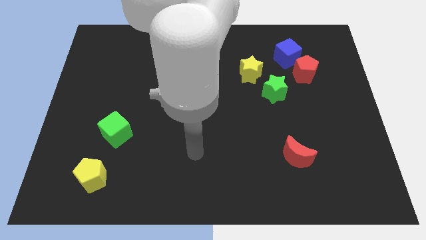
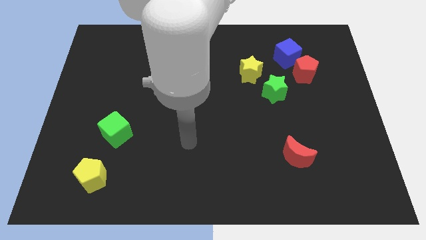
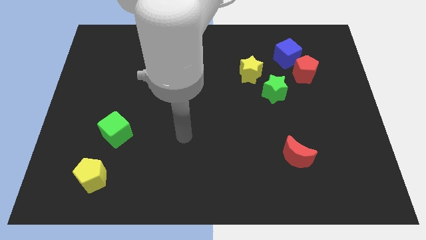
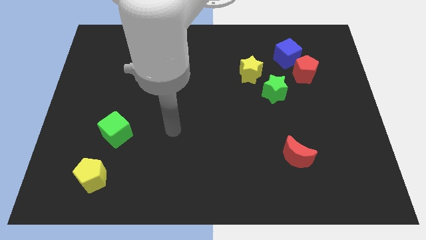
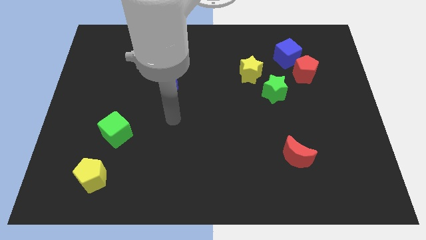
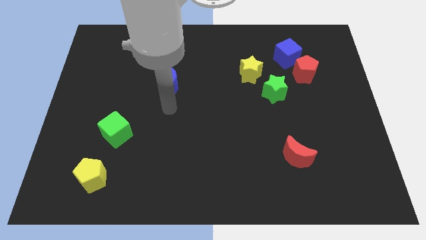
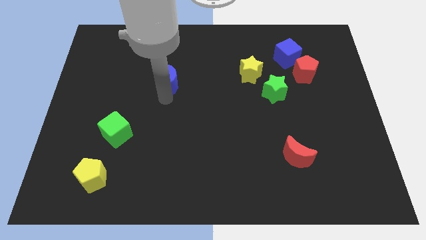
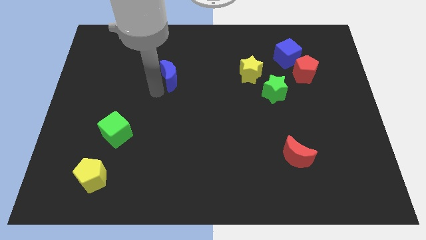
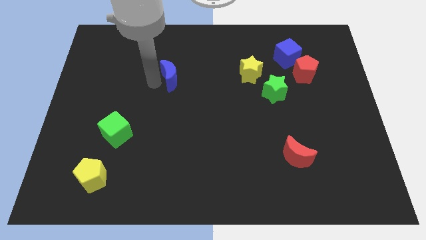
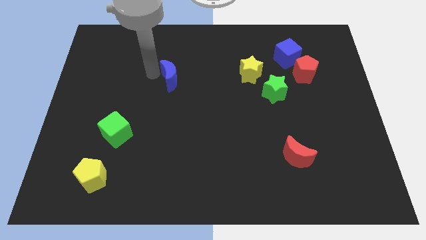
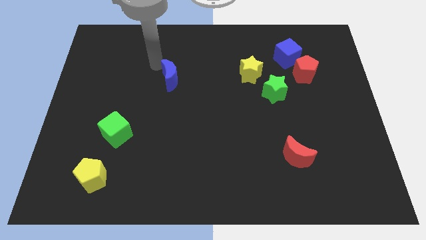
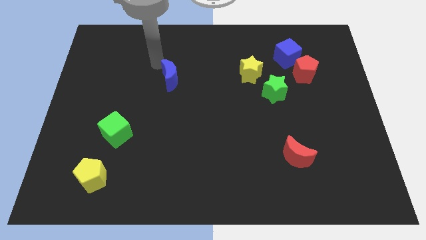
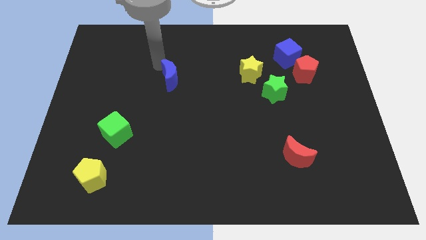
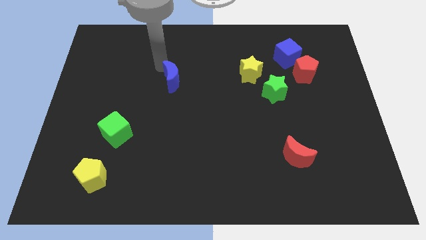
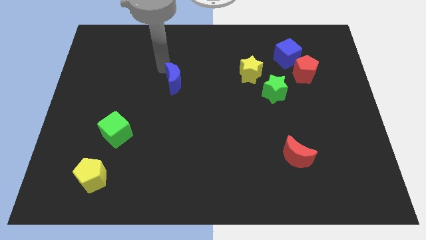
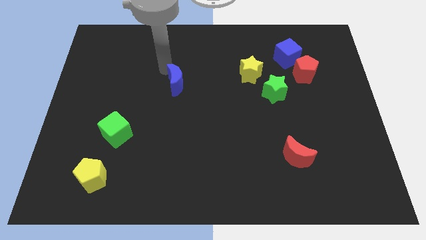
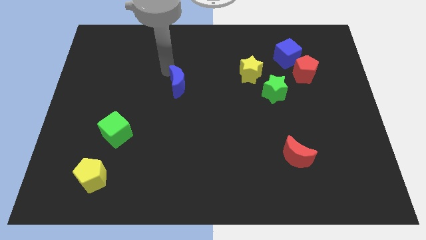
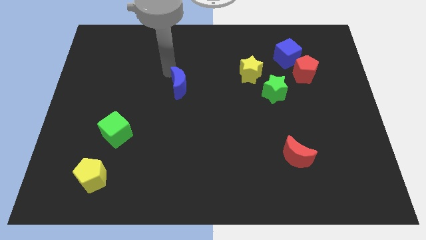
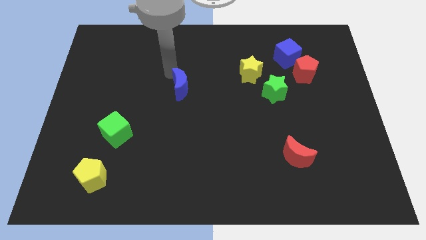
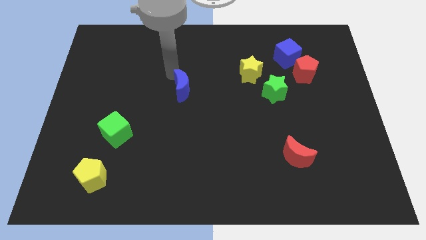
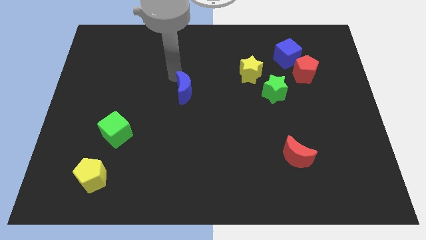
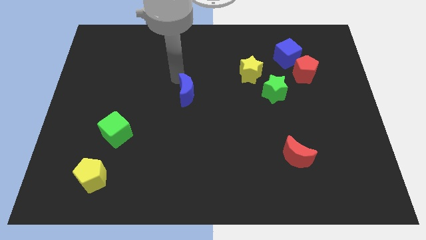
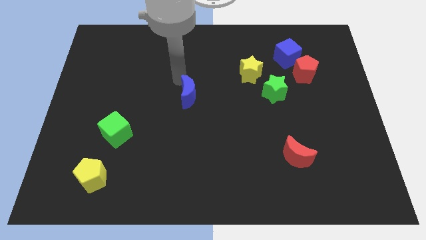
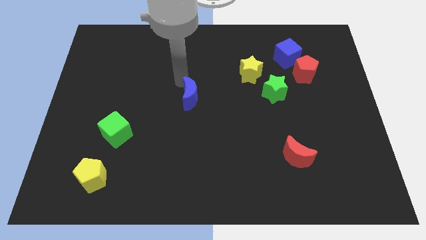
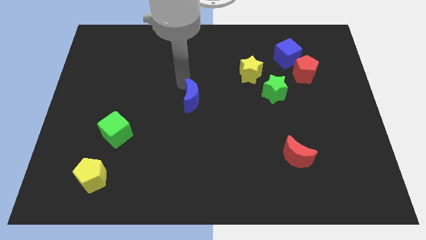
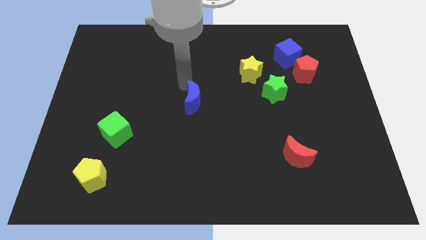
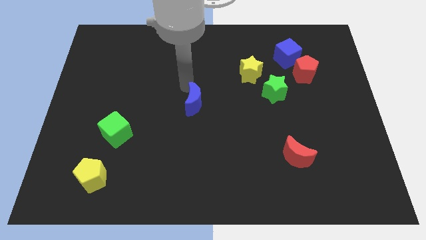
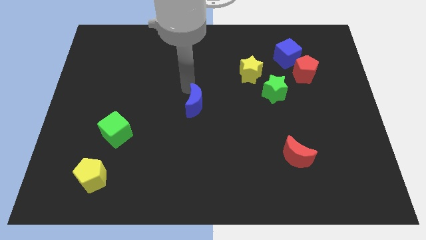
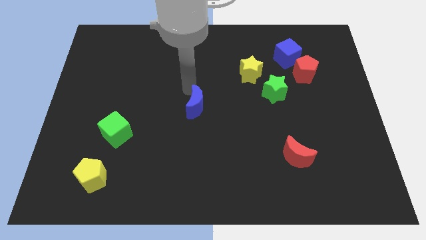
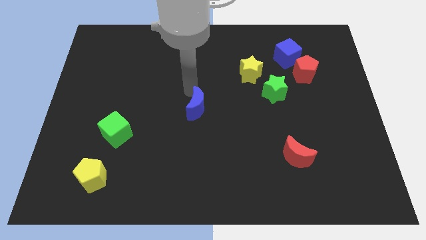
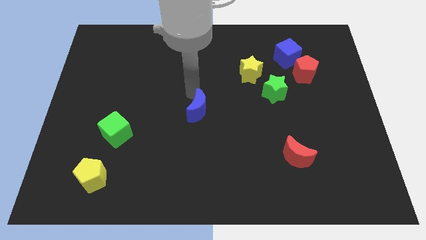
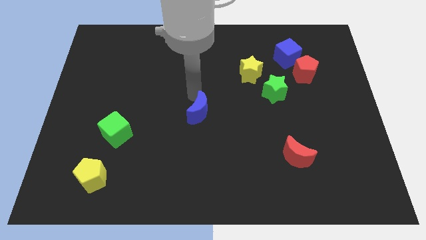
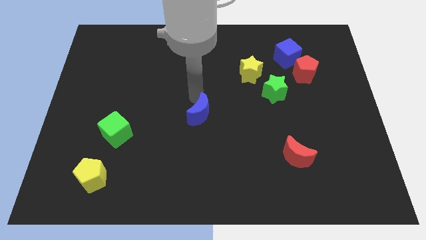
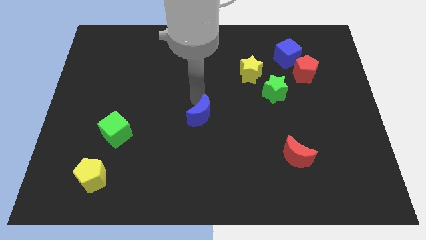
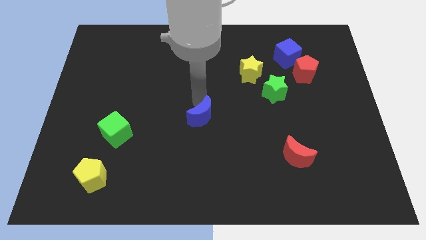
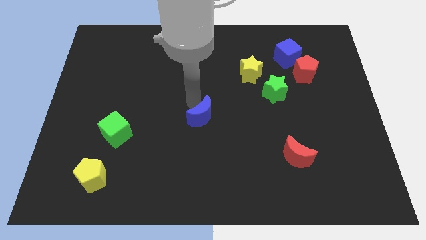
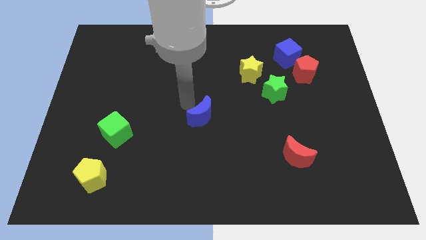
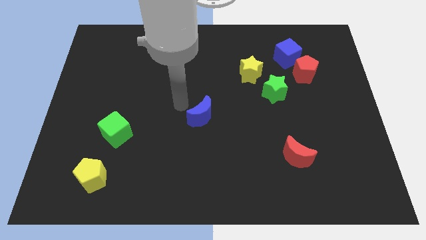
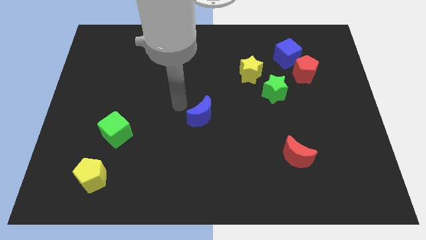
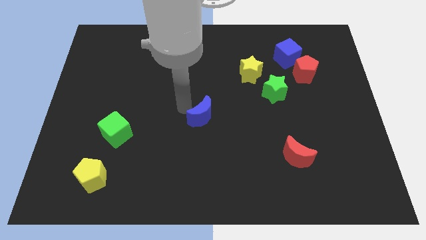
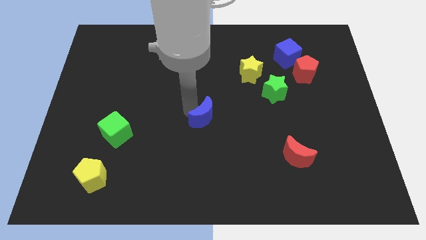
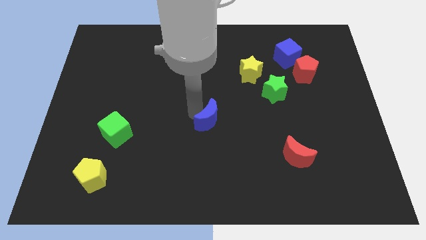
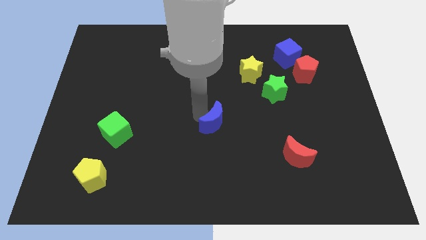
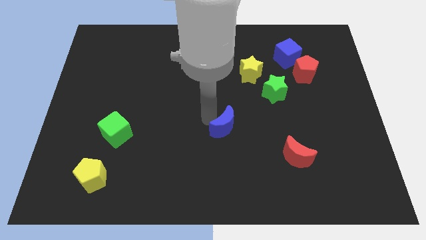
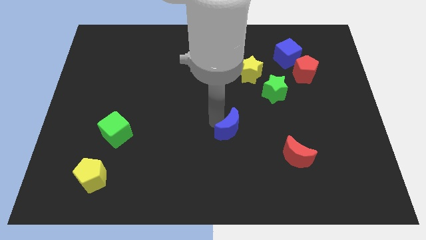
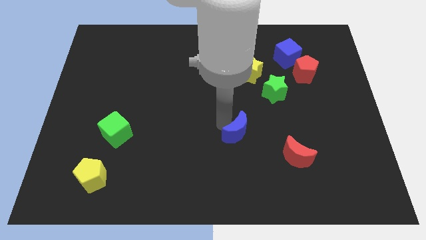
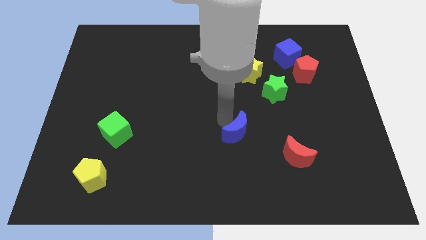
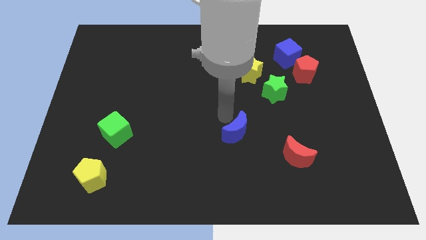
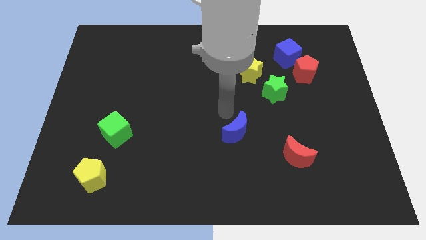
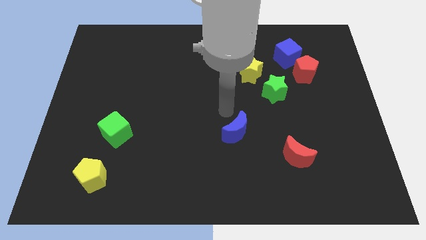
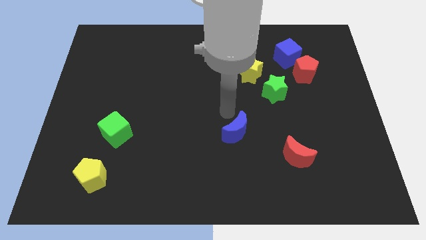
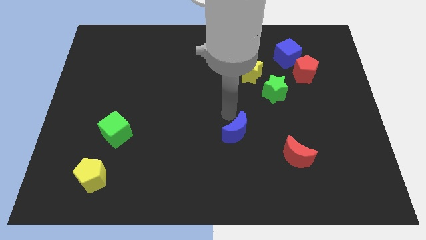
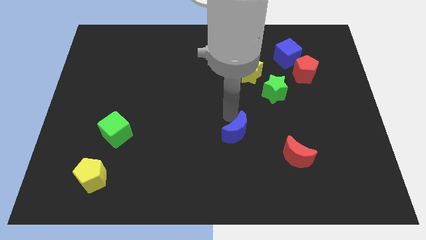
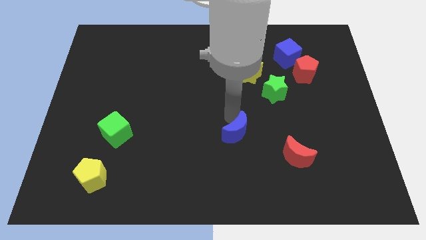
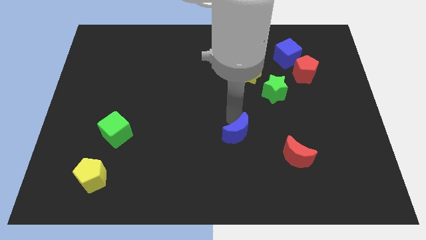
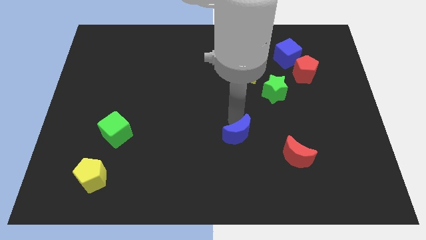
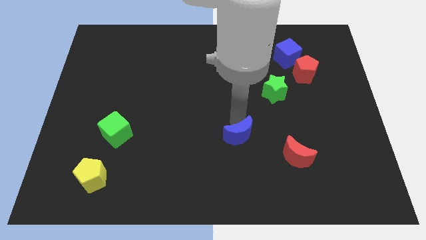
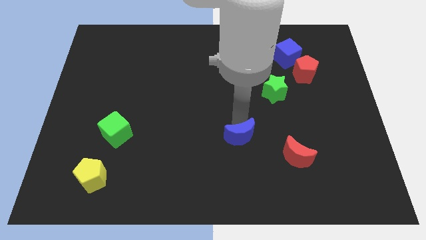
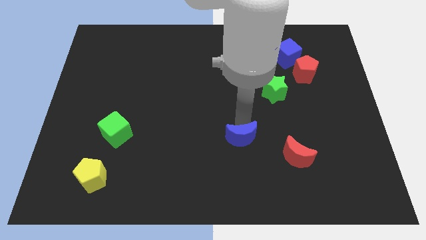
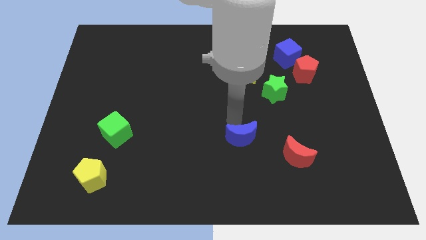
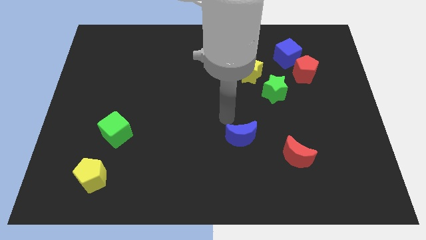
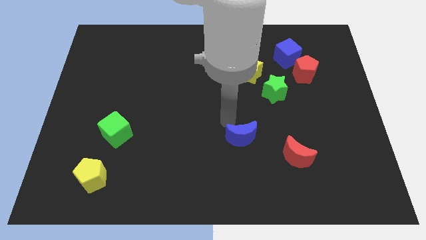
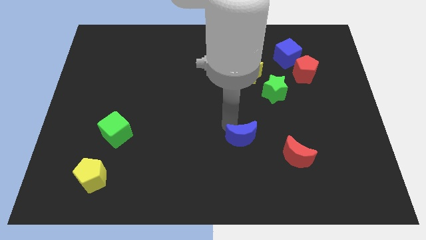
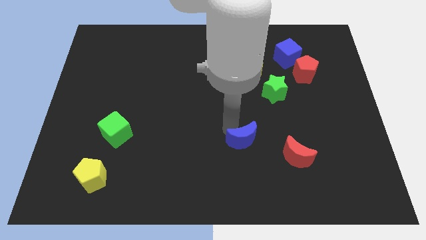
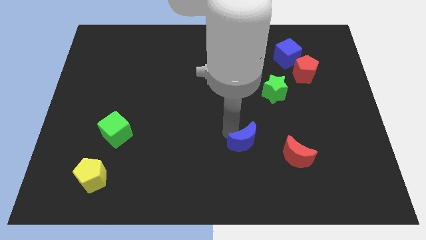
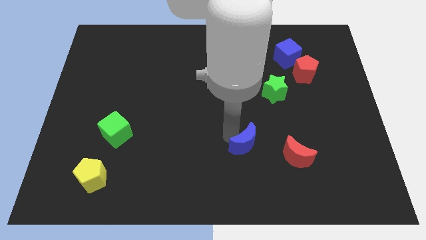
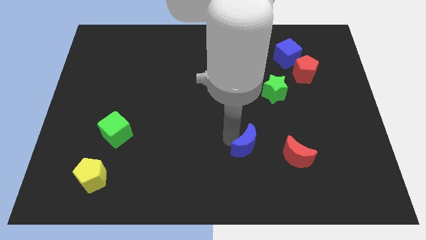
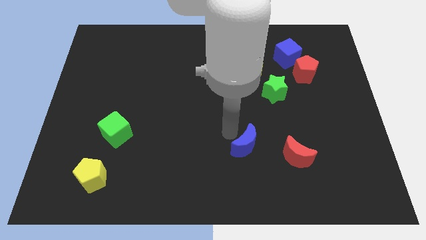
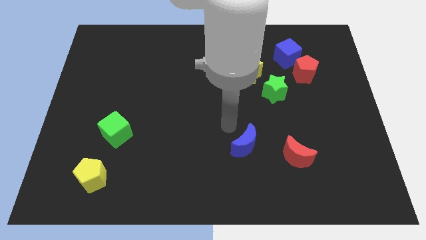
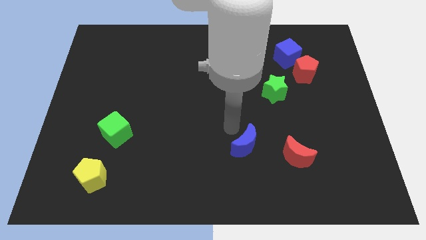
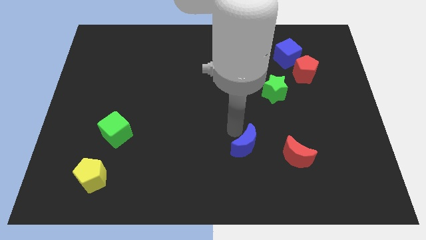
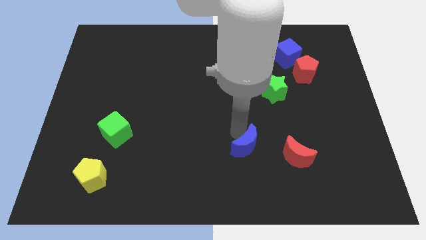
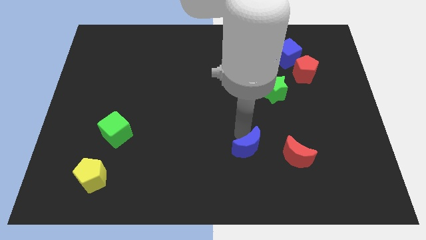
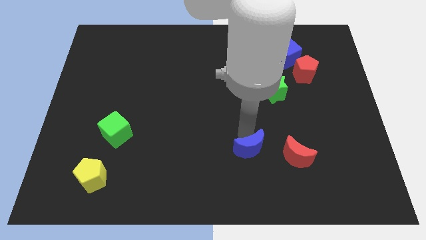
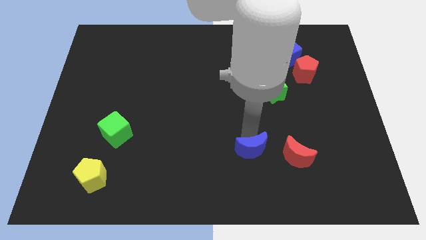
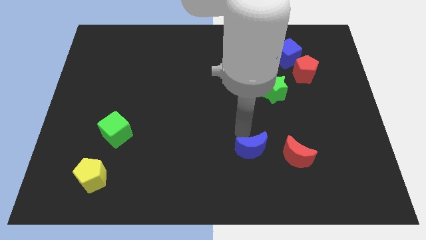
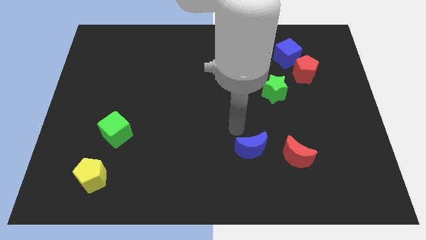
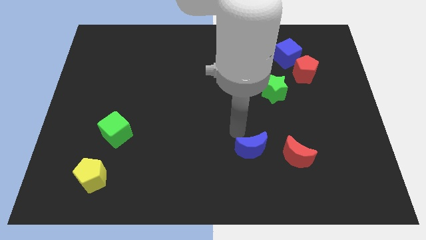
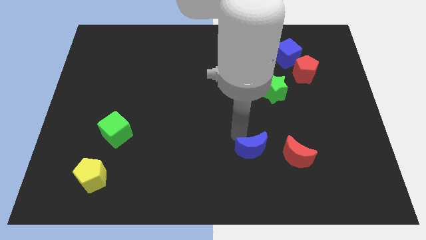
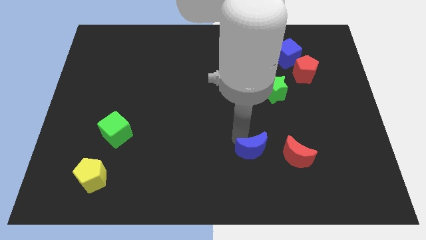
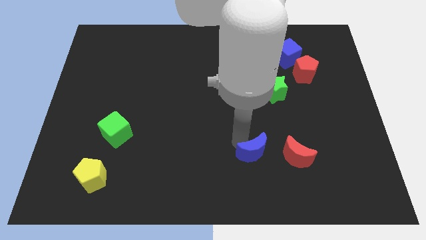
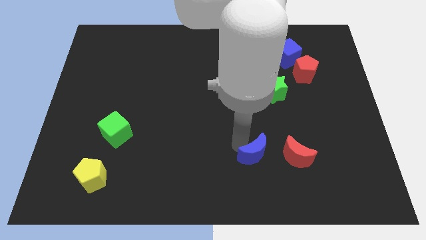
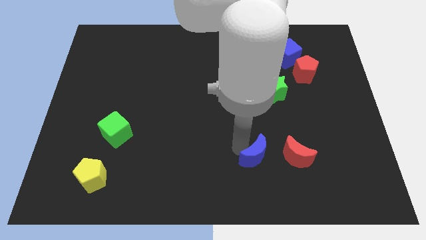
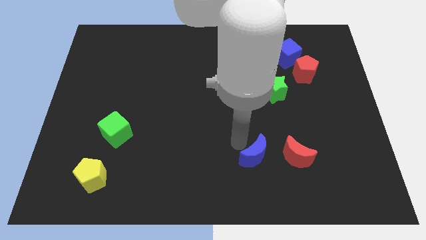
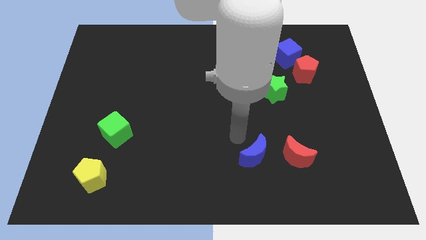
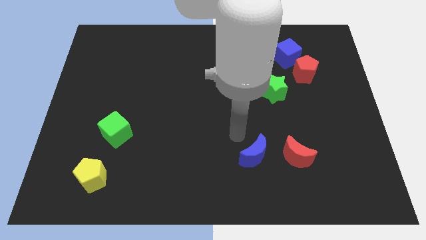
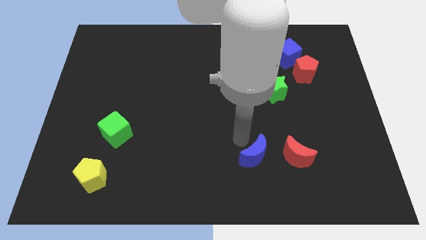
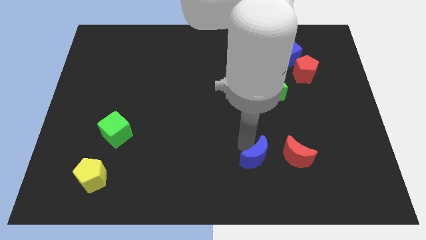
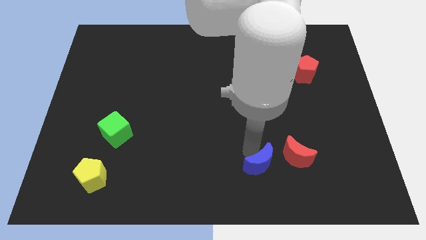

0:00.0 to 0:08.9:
put the blue moon to the bottom left side of the red moon
